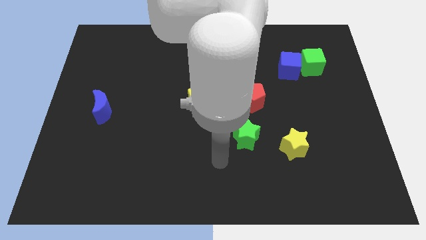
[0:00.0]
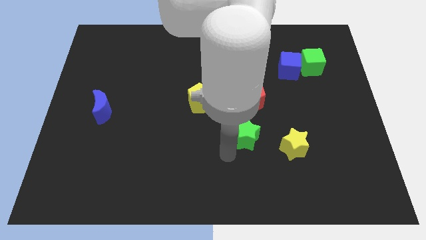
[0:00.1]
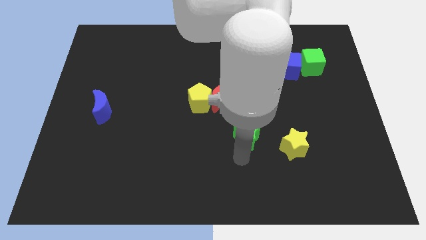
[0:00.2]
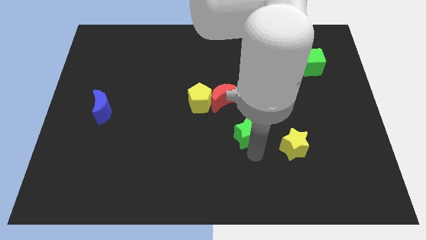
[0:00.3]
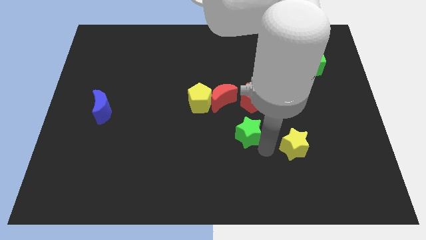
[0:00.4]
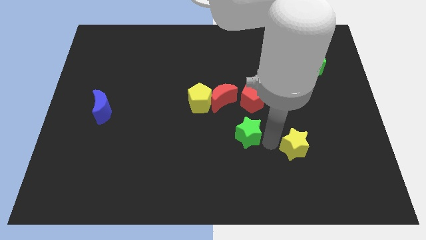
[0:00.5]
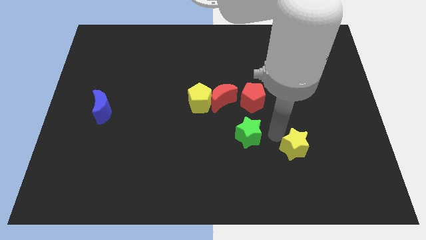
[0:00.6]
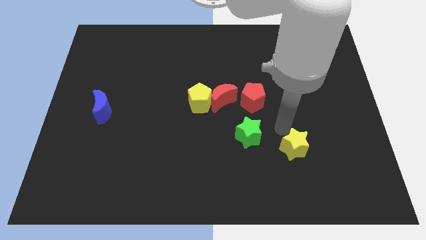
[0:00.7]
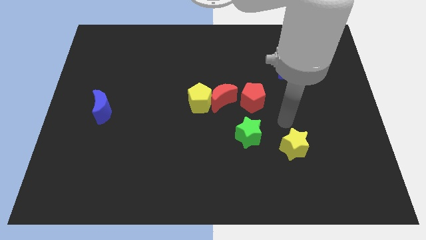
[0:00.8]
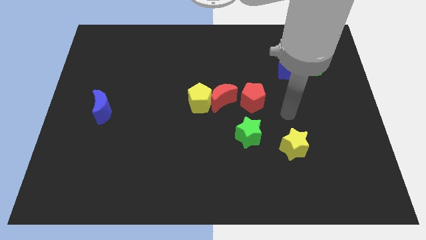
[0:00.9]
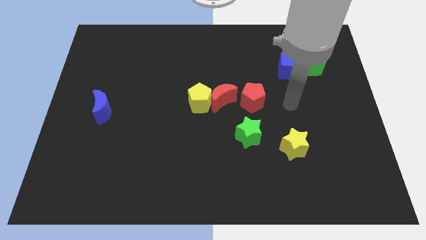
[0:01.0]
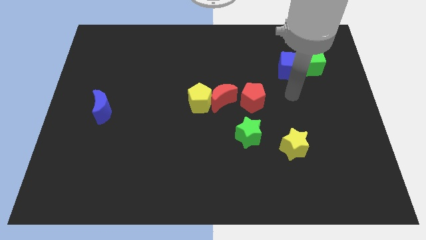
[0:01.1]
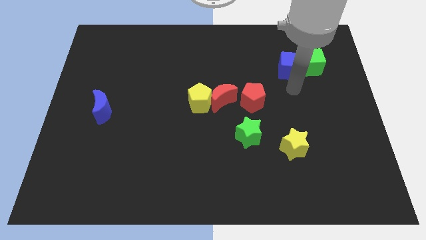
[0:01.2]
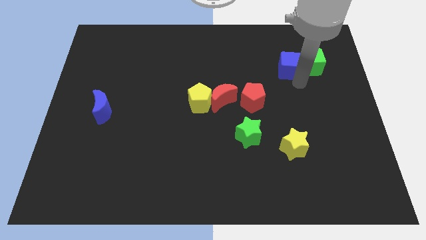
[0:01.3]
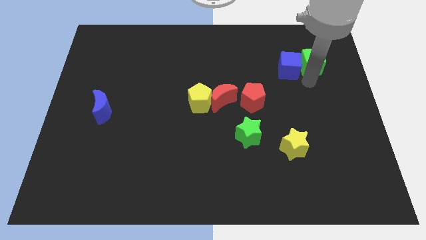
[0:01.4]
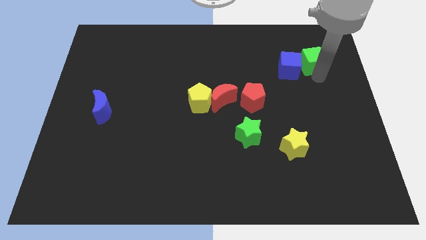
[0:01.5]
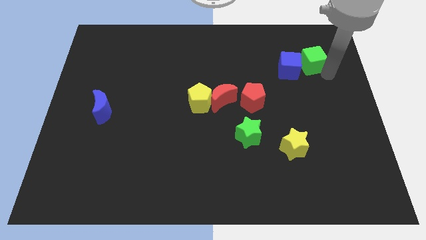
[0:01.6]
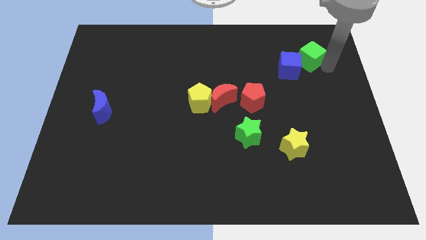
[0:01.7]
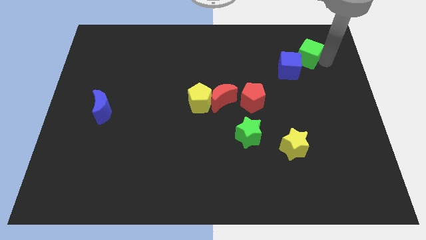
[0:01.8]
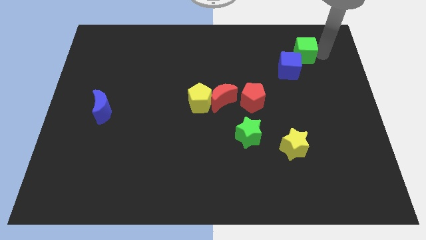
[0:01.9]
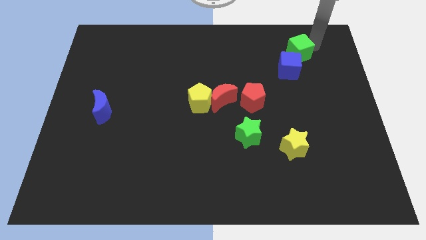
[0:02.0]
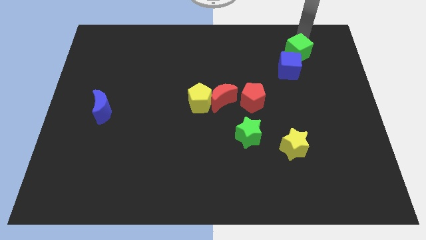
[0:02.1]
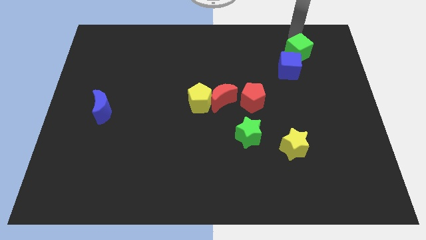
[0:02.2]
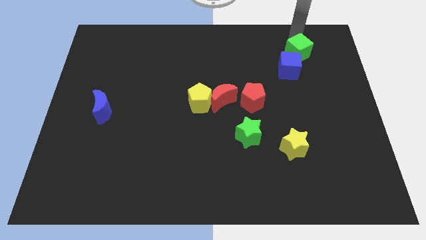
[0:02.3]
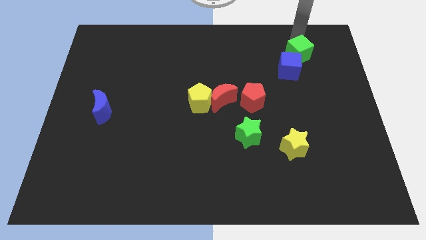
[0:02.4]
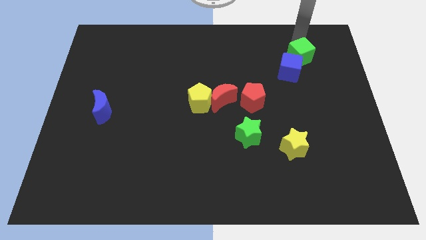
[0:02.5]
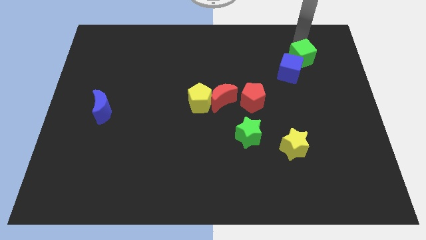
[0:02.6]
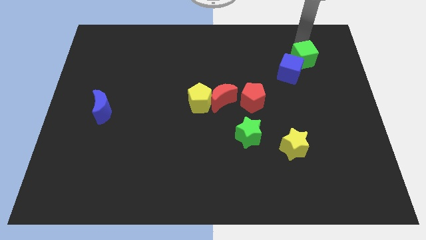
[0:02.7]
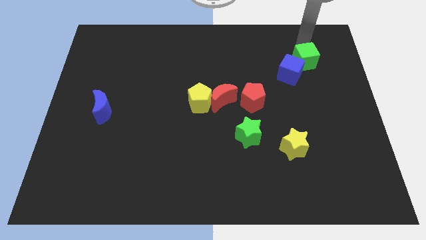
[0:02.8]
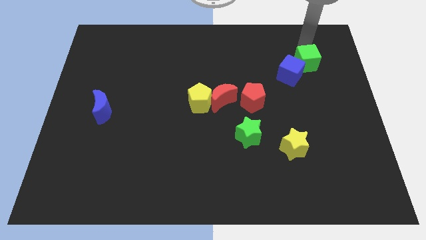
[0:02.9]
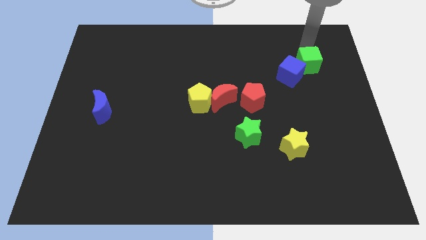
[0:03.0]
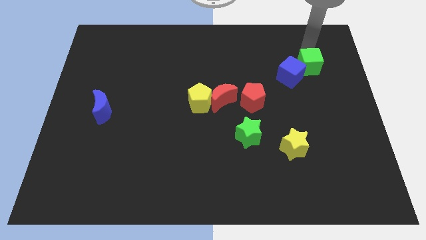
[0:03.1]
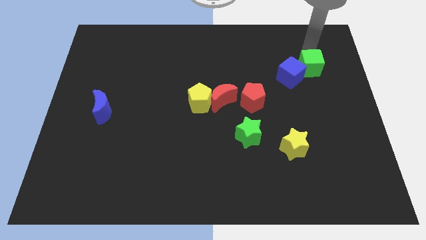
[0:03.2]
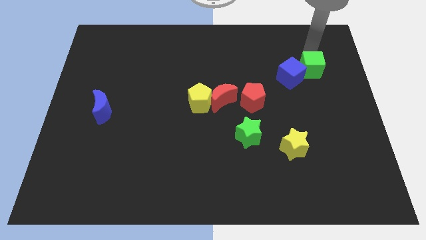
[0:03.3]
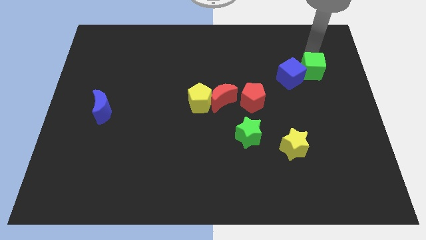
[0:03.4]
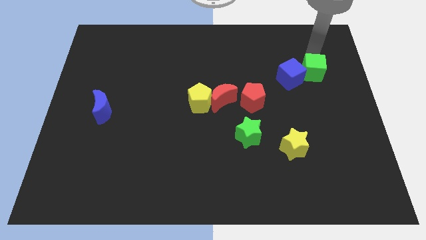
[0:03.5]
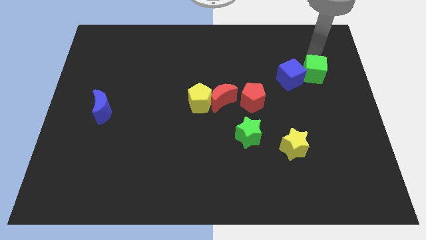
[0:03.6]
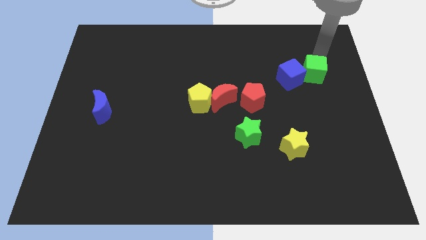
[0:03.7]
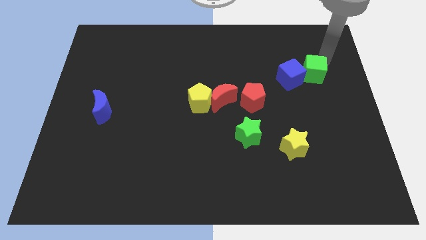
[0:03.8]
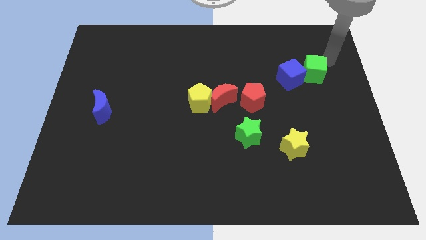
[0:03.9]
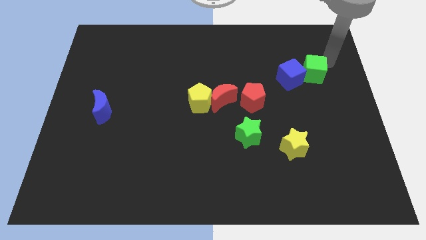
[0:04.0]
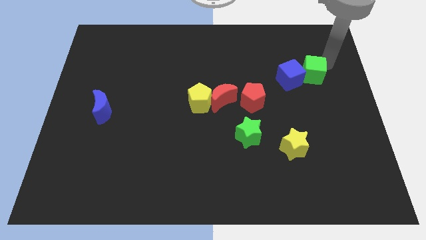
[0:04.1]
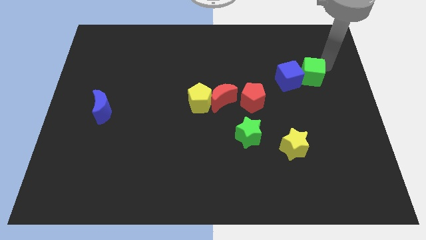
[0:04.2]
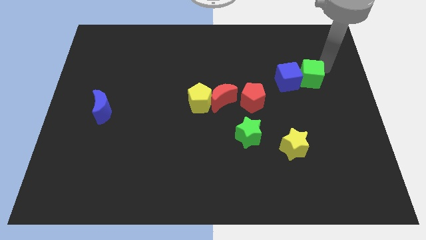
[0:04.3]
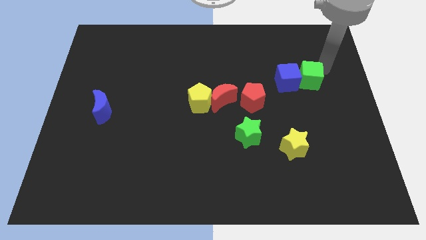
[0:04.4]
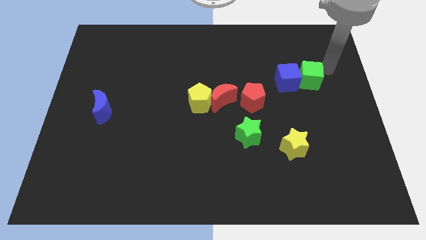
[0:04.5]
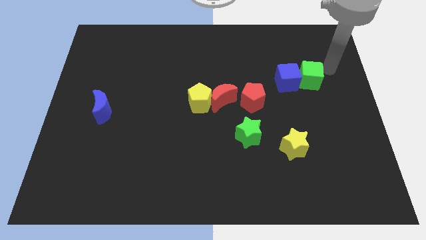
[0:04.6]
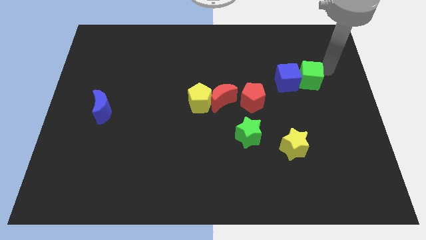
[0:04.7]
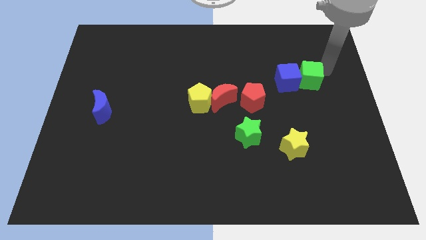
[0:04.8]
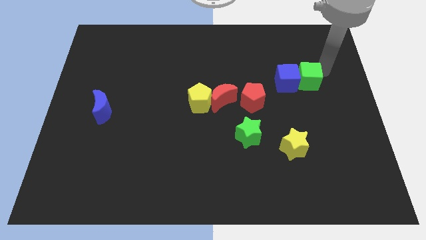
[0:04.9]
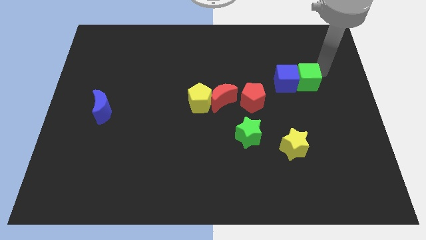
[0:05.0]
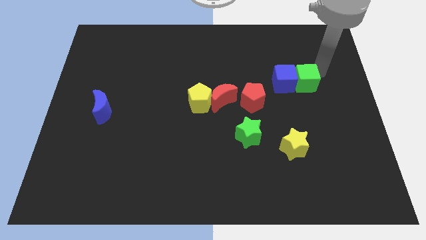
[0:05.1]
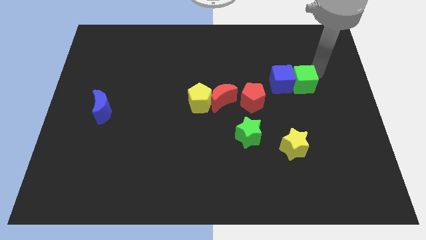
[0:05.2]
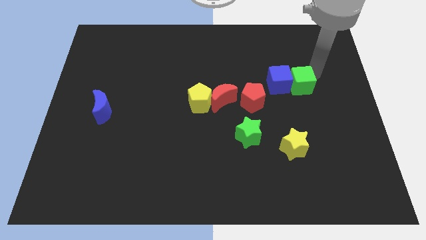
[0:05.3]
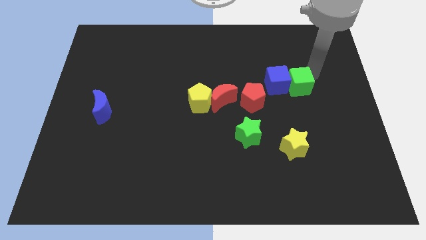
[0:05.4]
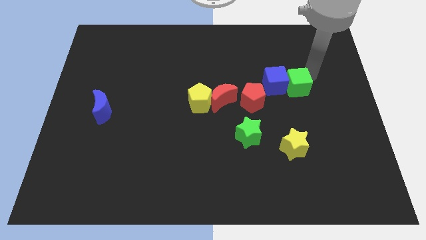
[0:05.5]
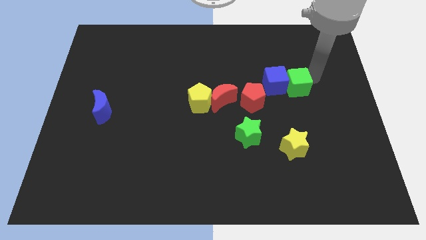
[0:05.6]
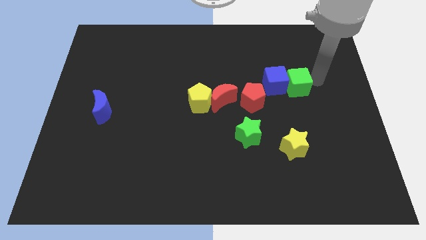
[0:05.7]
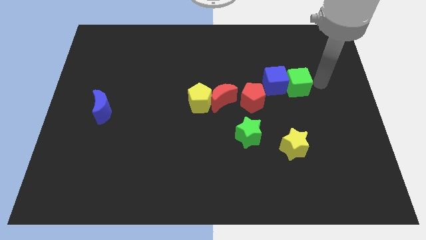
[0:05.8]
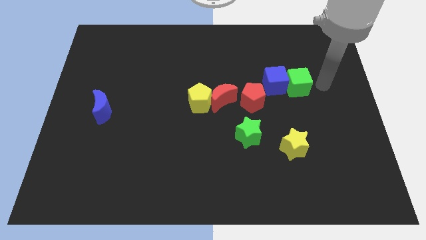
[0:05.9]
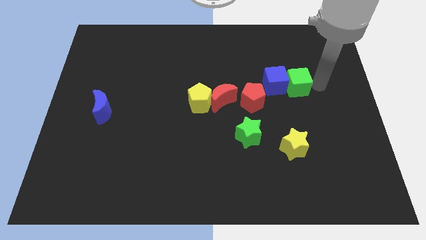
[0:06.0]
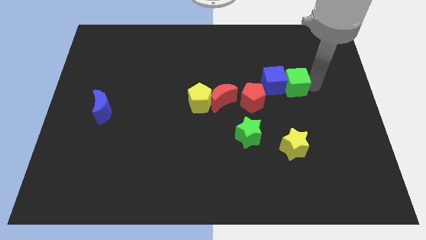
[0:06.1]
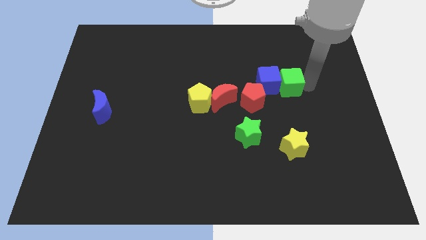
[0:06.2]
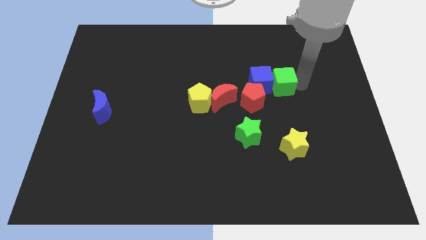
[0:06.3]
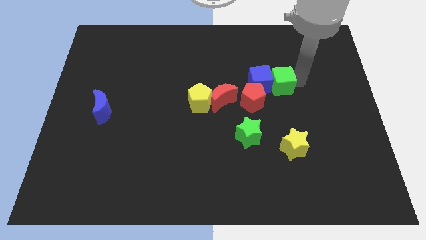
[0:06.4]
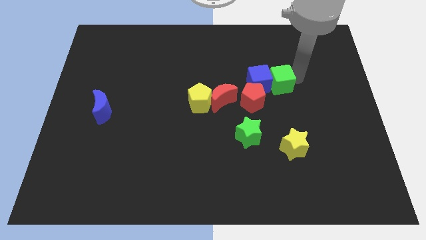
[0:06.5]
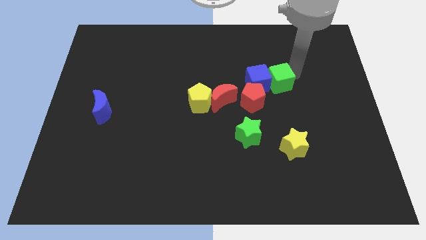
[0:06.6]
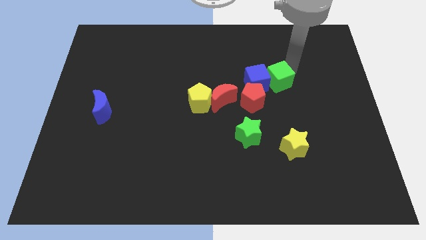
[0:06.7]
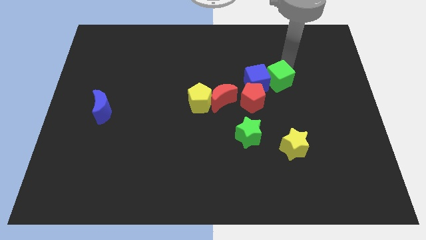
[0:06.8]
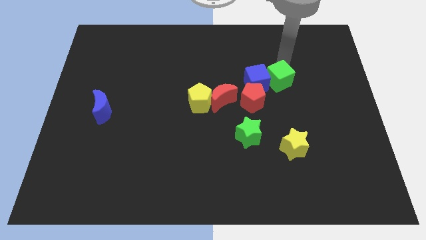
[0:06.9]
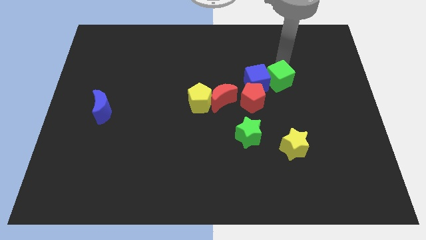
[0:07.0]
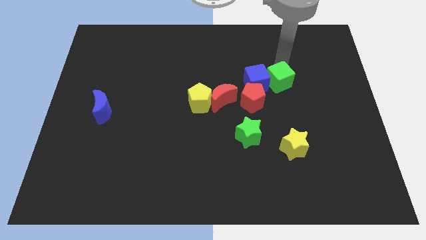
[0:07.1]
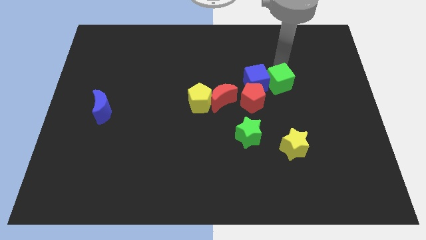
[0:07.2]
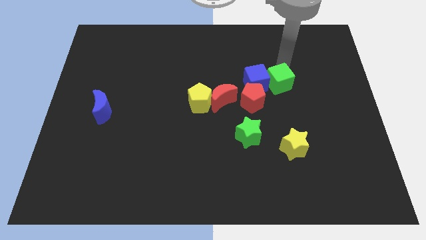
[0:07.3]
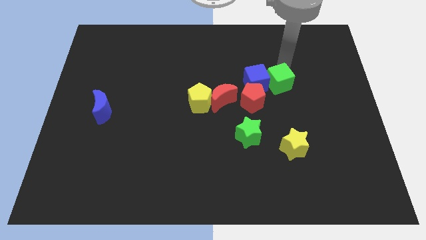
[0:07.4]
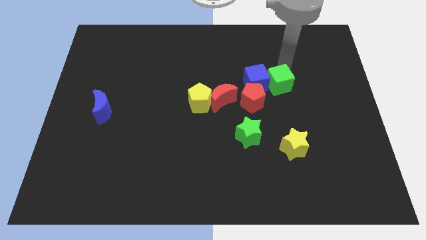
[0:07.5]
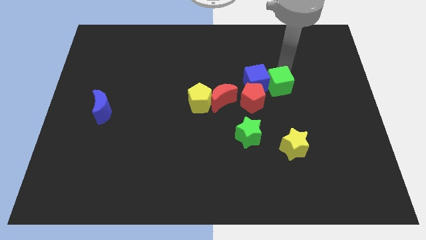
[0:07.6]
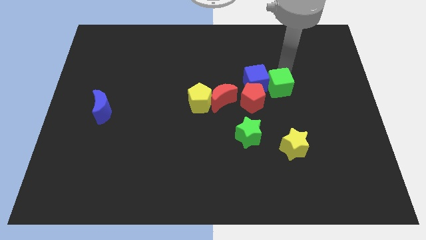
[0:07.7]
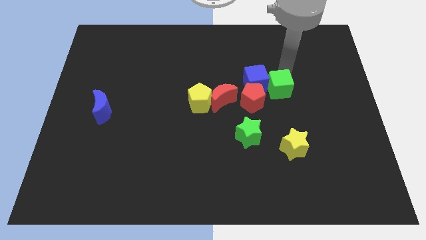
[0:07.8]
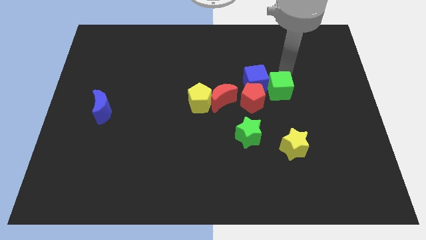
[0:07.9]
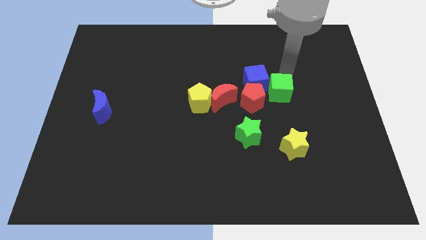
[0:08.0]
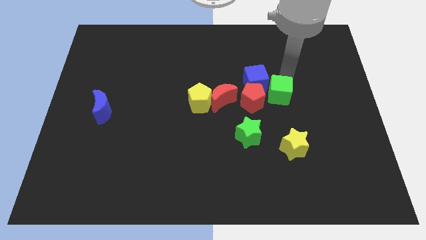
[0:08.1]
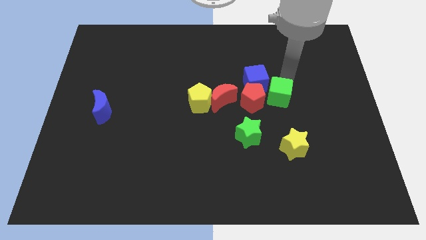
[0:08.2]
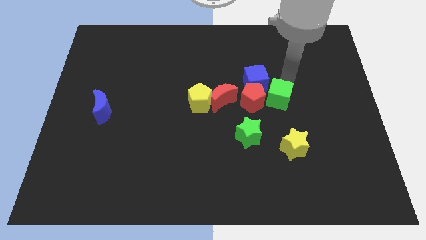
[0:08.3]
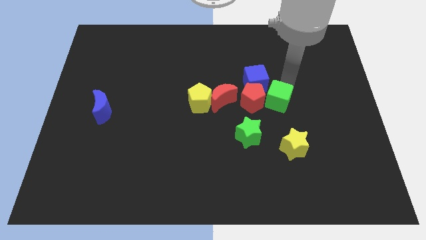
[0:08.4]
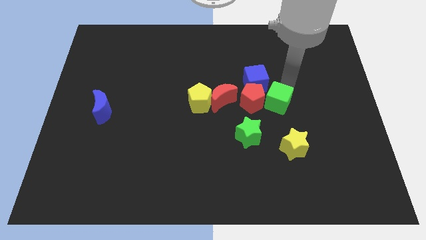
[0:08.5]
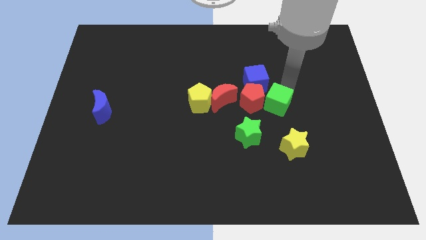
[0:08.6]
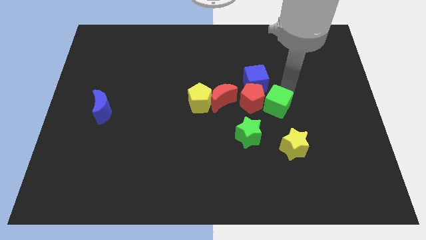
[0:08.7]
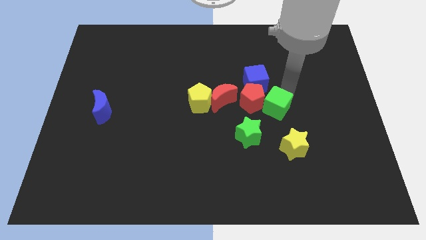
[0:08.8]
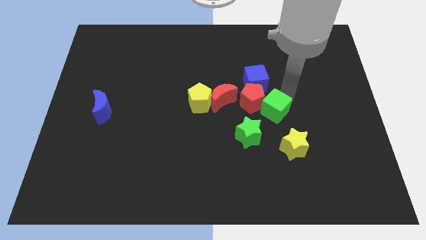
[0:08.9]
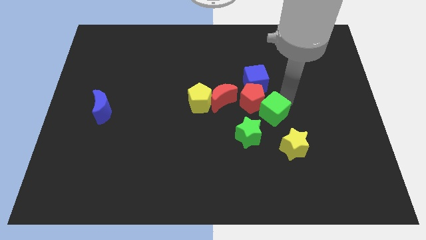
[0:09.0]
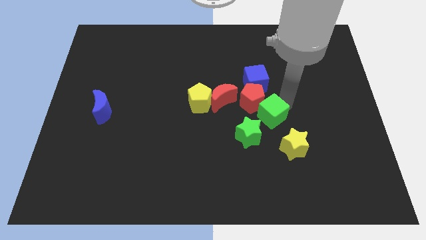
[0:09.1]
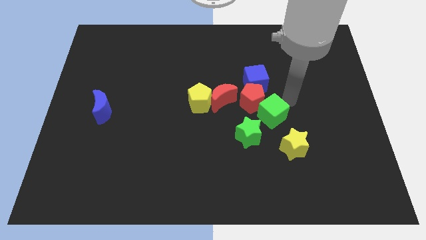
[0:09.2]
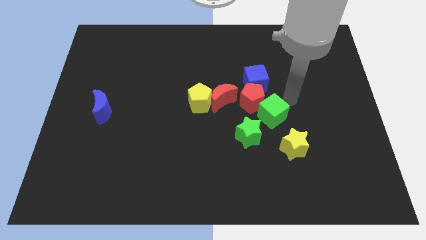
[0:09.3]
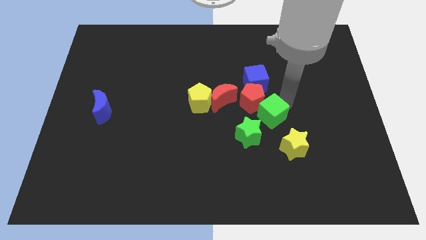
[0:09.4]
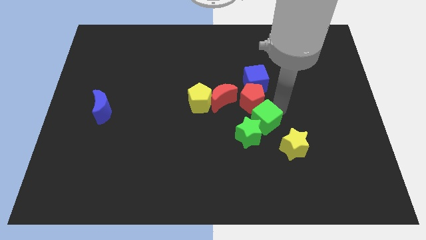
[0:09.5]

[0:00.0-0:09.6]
put the green cube next to the green star
